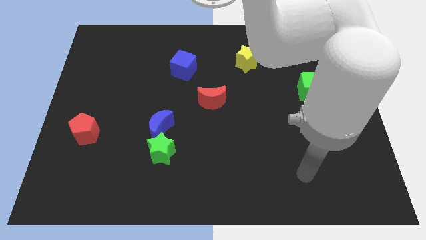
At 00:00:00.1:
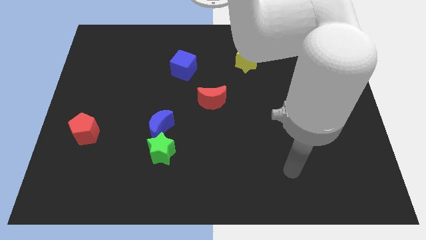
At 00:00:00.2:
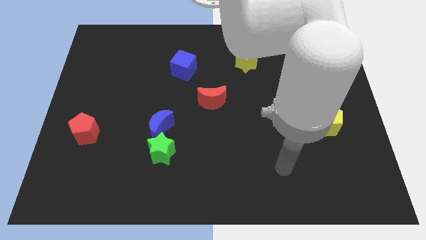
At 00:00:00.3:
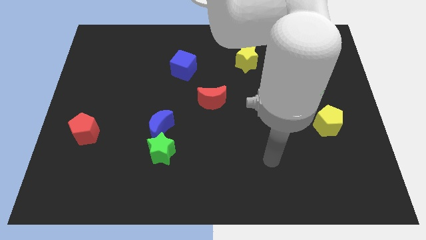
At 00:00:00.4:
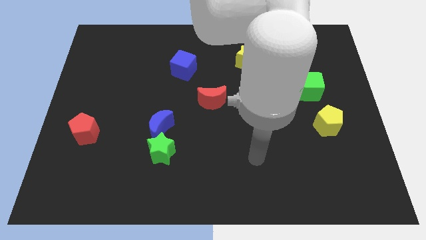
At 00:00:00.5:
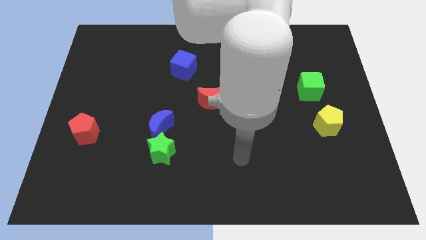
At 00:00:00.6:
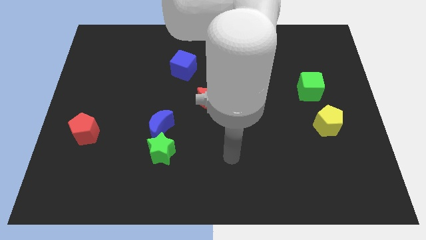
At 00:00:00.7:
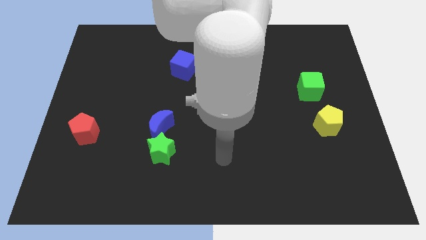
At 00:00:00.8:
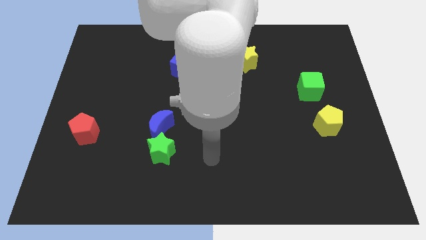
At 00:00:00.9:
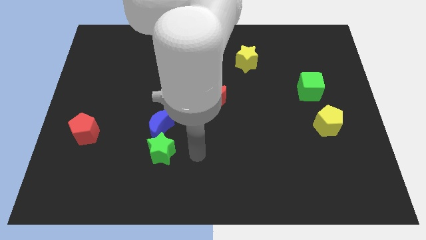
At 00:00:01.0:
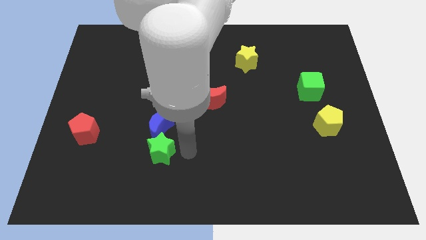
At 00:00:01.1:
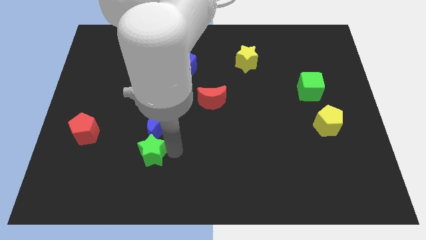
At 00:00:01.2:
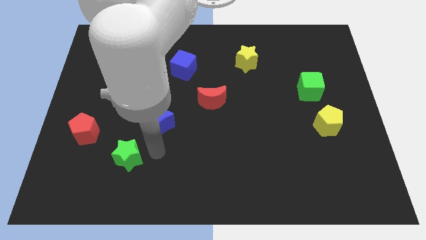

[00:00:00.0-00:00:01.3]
pull the blue moon apart from the green star

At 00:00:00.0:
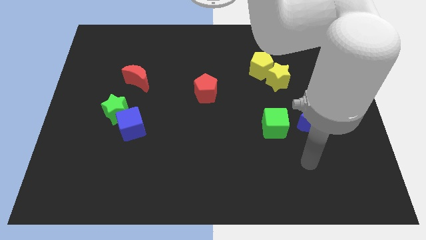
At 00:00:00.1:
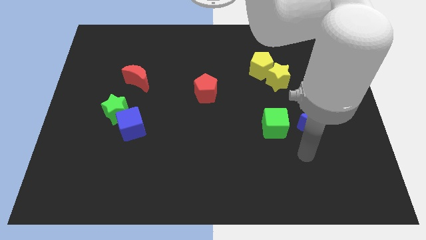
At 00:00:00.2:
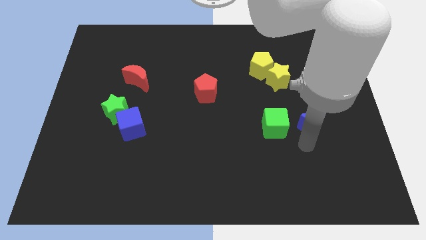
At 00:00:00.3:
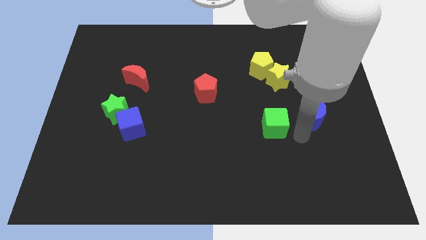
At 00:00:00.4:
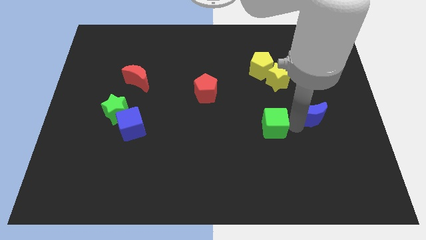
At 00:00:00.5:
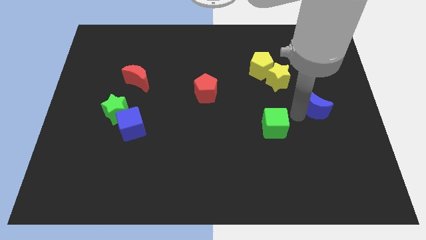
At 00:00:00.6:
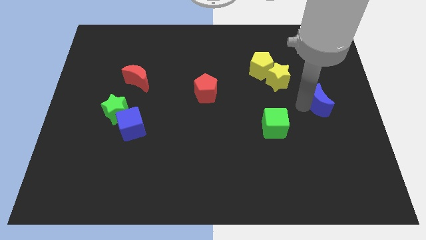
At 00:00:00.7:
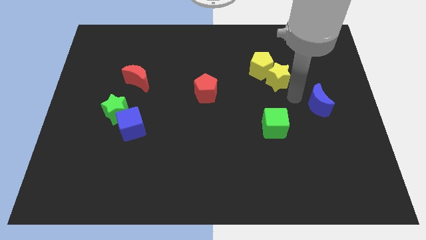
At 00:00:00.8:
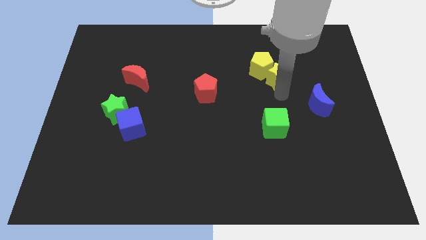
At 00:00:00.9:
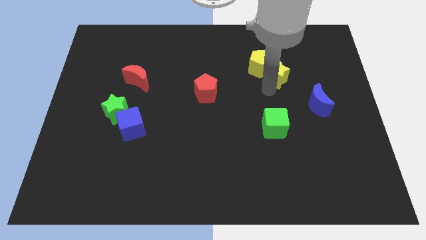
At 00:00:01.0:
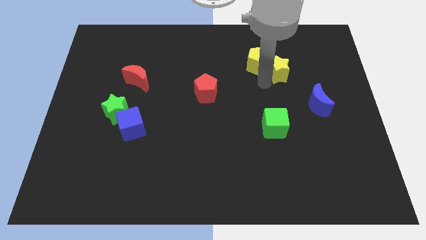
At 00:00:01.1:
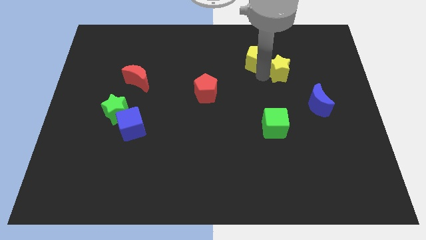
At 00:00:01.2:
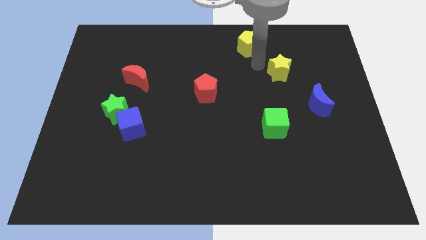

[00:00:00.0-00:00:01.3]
move the yellow star away from the yellow pentagon

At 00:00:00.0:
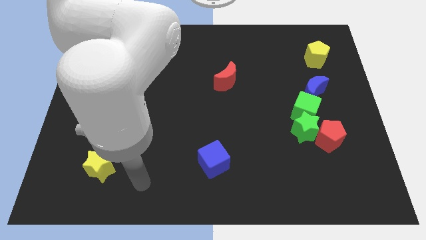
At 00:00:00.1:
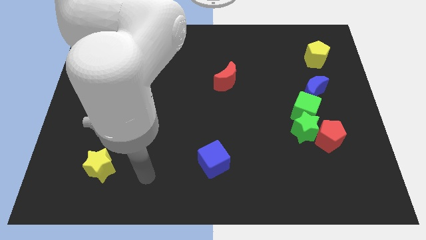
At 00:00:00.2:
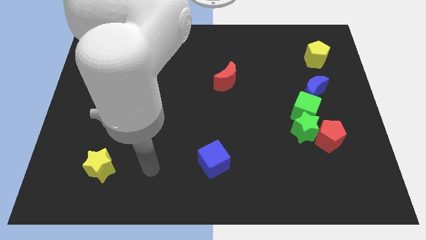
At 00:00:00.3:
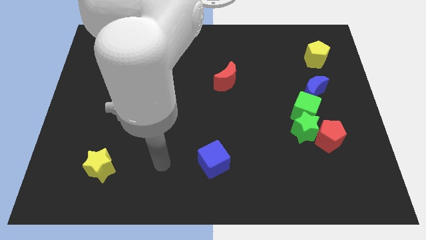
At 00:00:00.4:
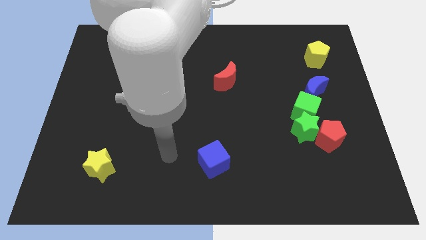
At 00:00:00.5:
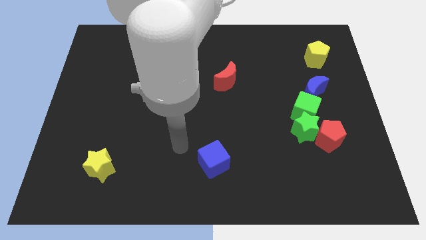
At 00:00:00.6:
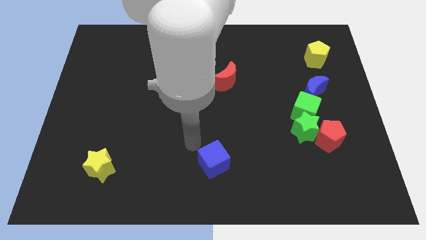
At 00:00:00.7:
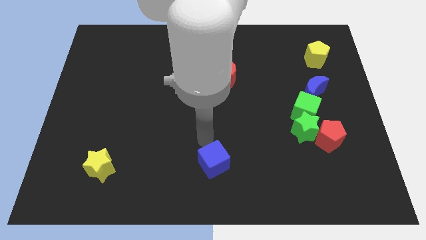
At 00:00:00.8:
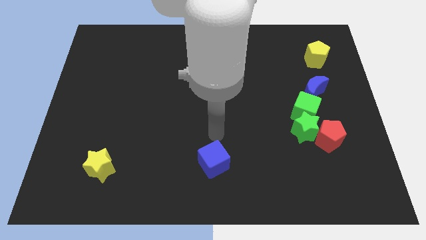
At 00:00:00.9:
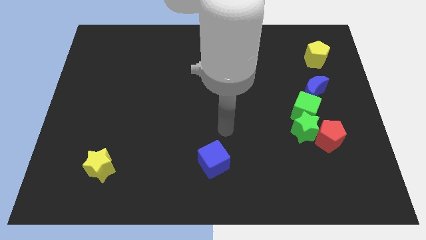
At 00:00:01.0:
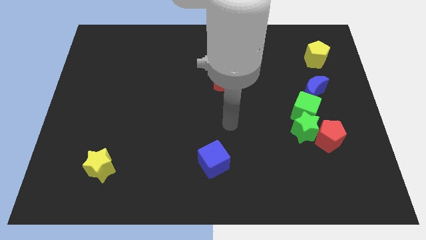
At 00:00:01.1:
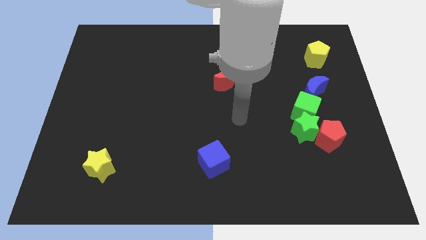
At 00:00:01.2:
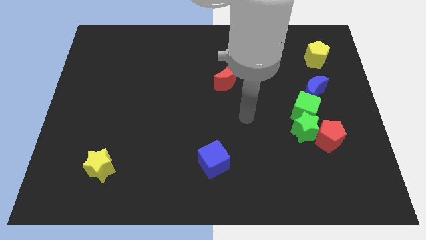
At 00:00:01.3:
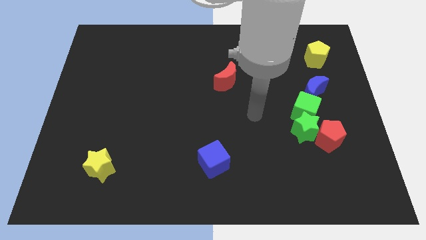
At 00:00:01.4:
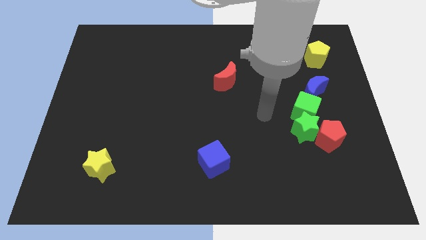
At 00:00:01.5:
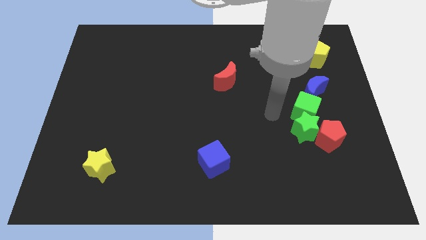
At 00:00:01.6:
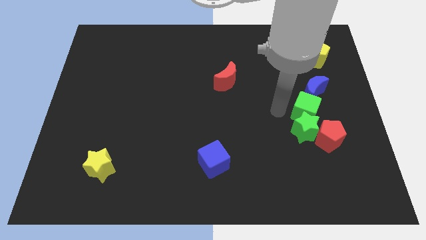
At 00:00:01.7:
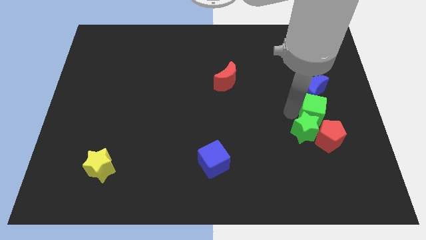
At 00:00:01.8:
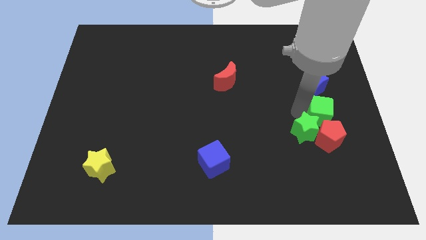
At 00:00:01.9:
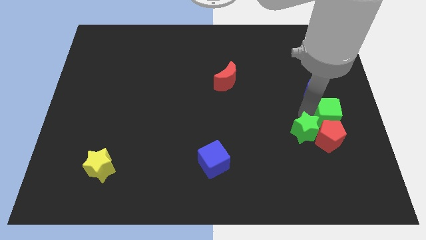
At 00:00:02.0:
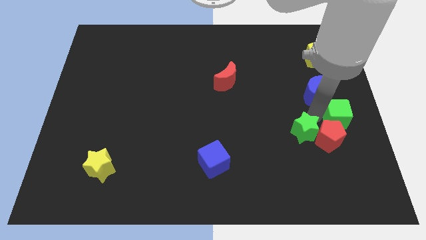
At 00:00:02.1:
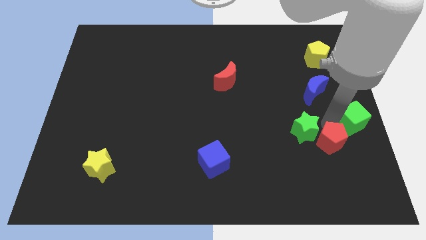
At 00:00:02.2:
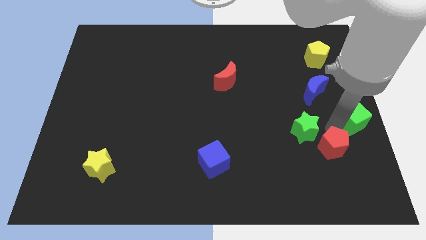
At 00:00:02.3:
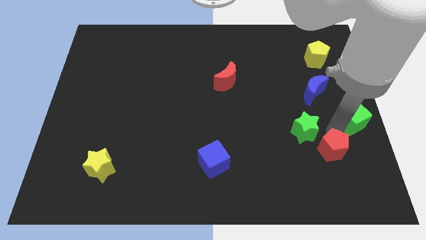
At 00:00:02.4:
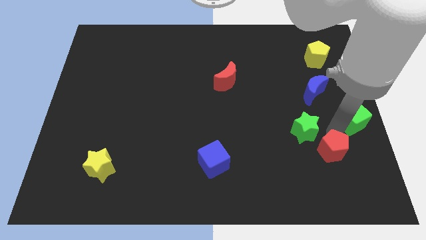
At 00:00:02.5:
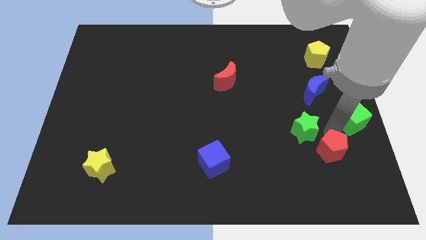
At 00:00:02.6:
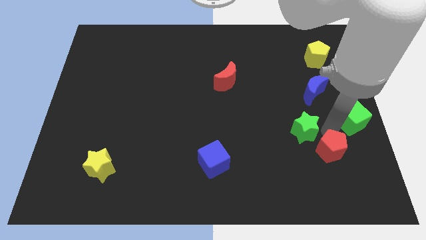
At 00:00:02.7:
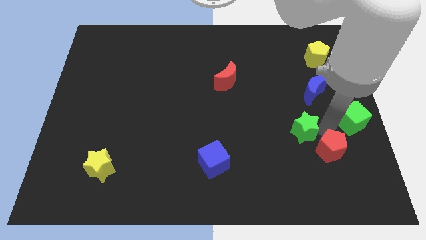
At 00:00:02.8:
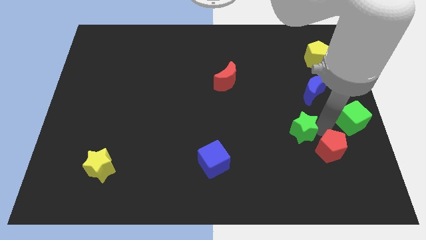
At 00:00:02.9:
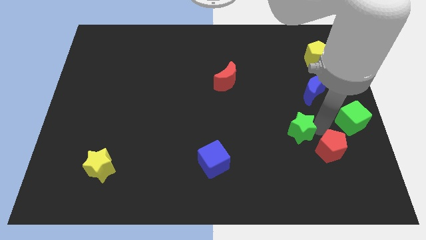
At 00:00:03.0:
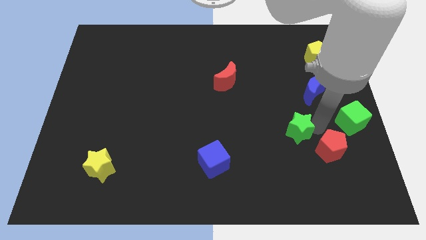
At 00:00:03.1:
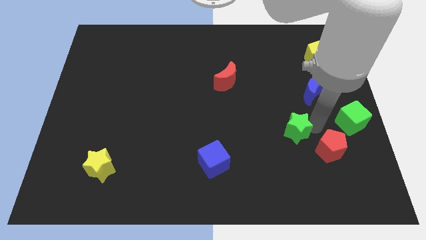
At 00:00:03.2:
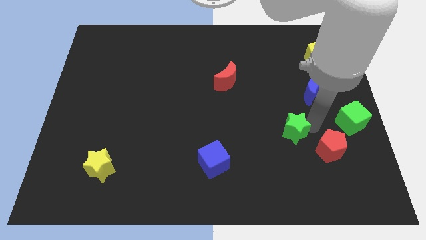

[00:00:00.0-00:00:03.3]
separate the green star from the red pentagon and green cube

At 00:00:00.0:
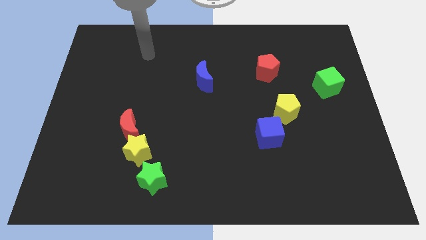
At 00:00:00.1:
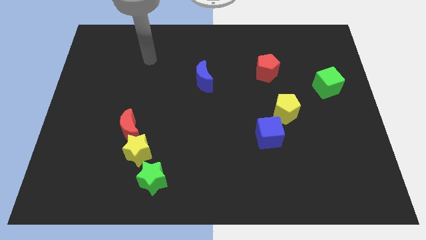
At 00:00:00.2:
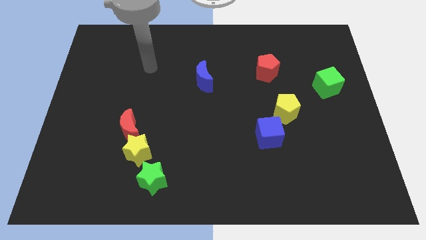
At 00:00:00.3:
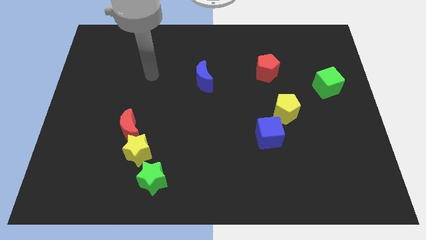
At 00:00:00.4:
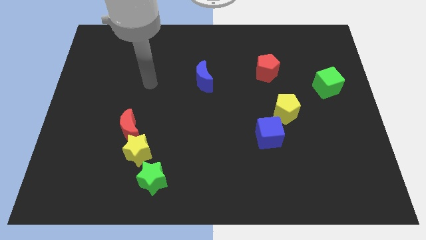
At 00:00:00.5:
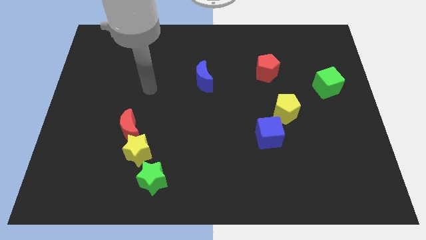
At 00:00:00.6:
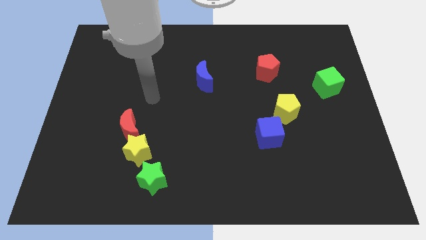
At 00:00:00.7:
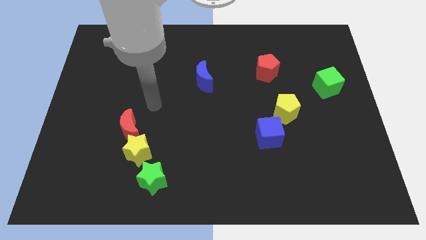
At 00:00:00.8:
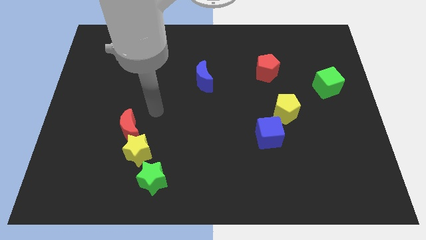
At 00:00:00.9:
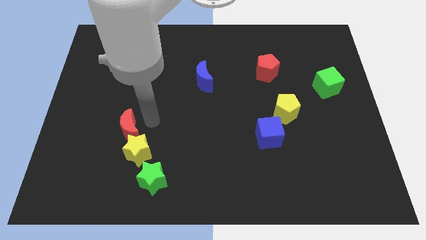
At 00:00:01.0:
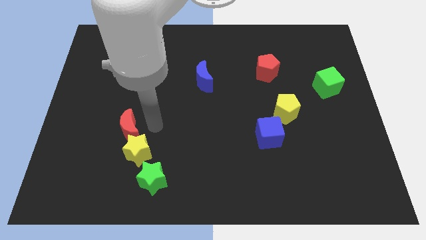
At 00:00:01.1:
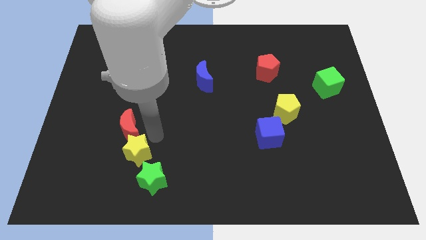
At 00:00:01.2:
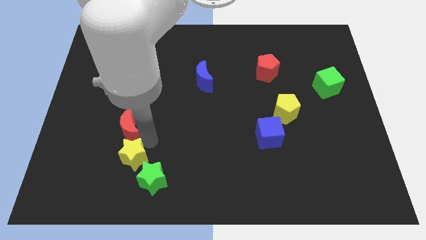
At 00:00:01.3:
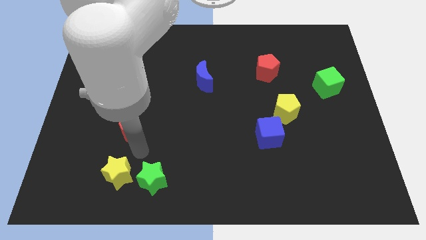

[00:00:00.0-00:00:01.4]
separate the red moon from the yellow star

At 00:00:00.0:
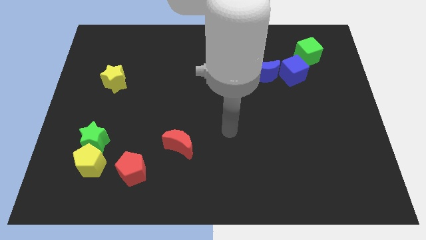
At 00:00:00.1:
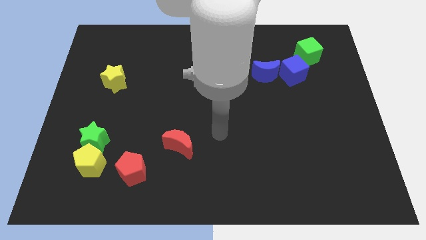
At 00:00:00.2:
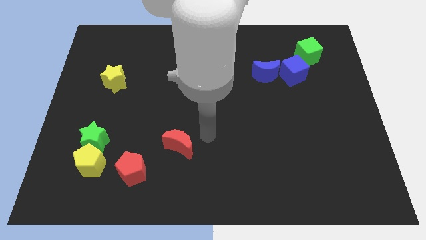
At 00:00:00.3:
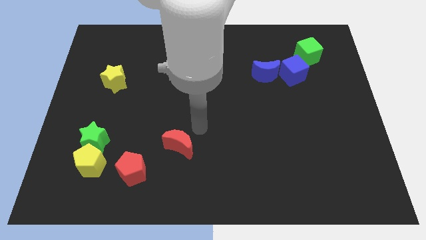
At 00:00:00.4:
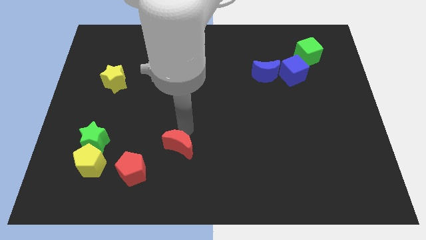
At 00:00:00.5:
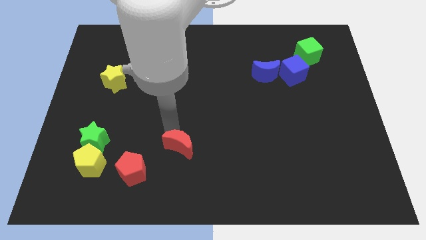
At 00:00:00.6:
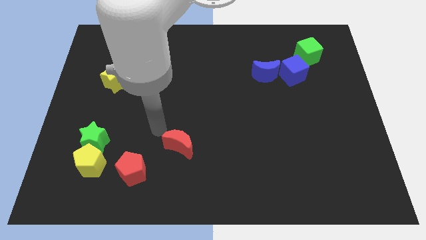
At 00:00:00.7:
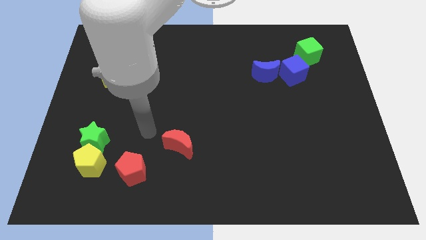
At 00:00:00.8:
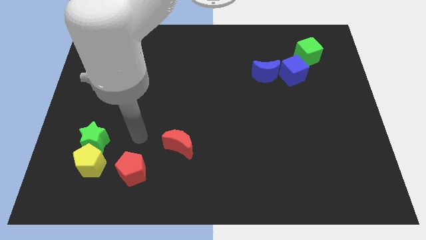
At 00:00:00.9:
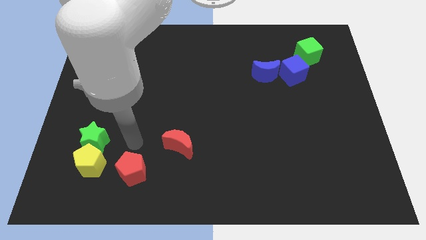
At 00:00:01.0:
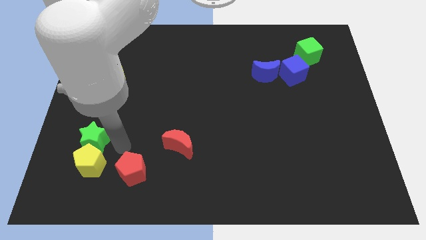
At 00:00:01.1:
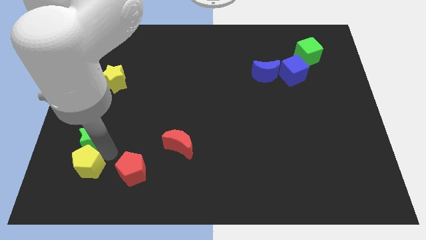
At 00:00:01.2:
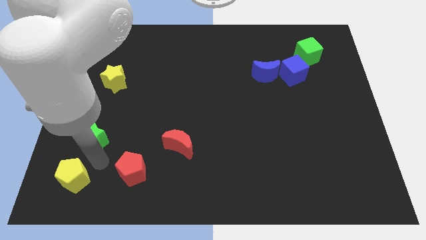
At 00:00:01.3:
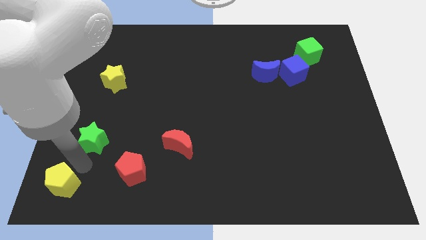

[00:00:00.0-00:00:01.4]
separate the green star from the yellow pentagon

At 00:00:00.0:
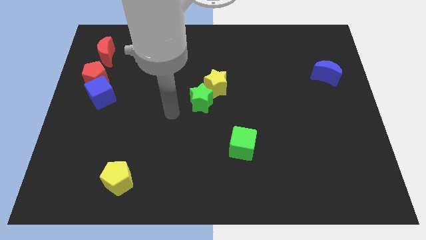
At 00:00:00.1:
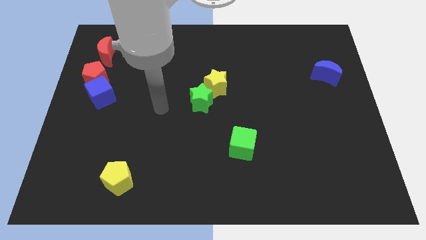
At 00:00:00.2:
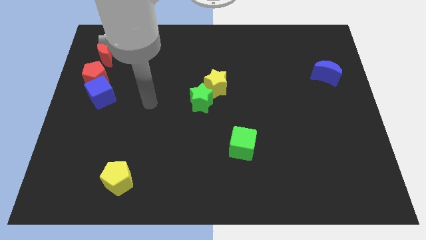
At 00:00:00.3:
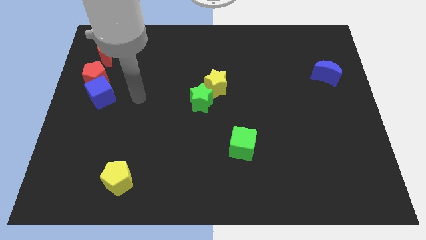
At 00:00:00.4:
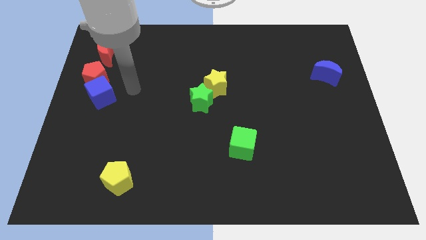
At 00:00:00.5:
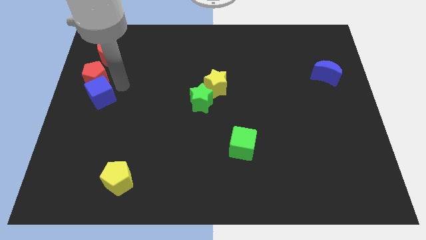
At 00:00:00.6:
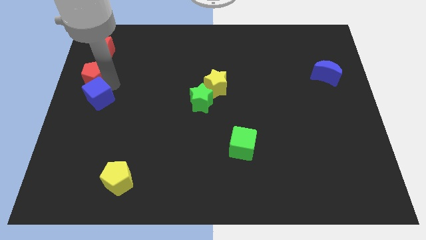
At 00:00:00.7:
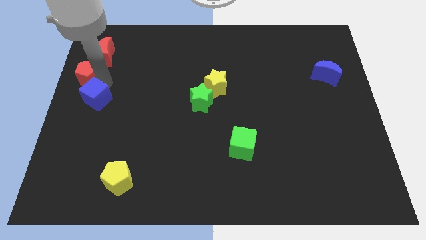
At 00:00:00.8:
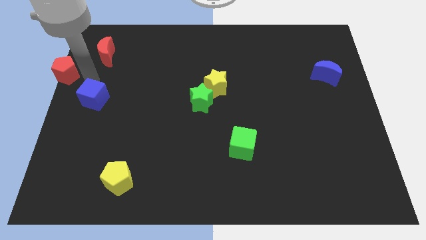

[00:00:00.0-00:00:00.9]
separate the blue cube from the red pentagon
